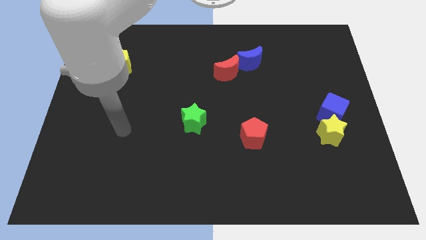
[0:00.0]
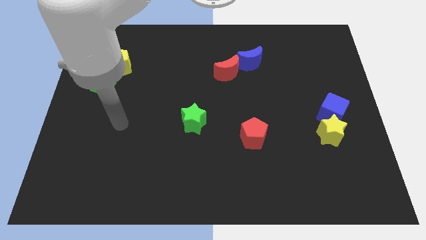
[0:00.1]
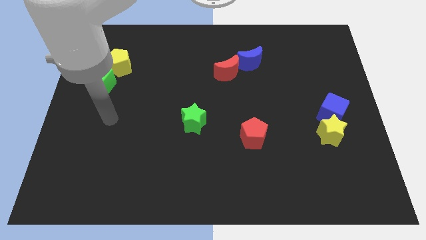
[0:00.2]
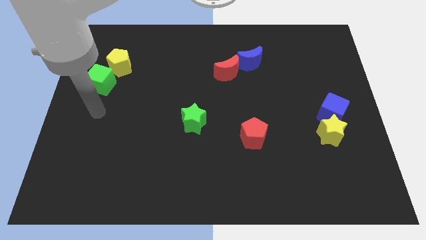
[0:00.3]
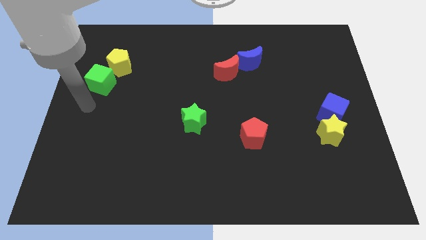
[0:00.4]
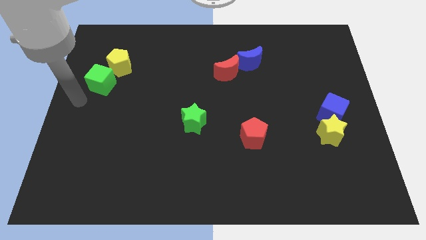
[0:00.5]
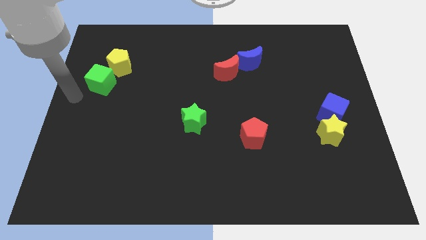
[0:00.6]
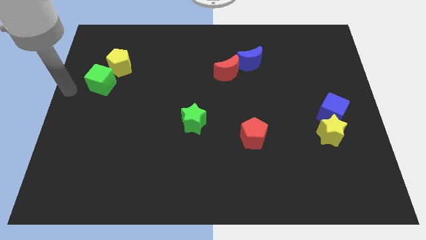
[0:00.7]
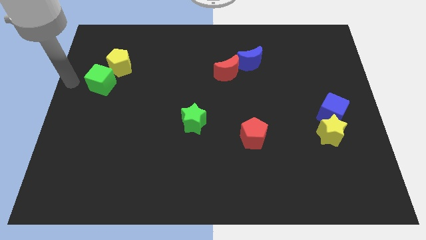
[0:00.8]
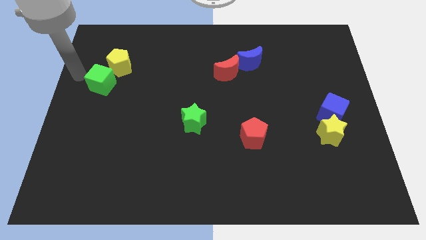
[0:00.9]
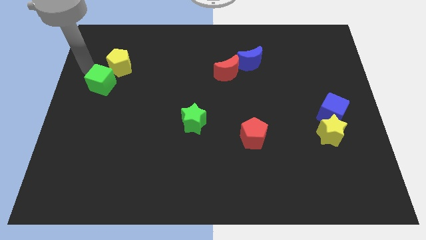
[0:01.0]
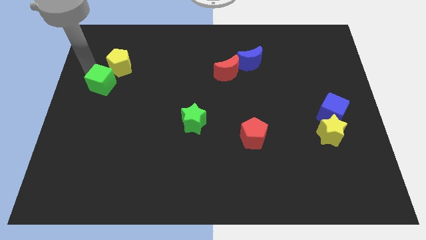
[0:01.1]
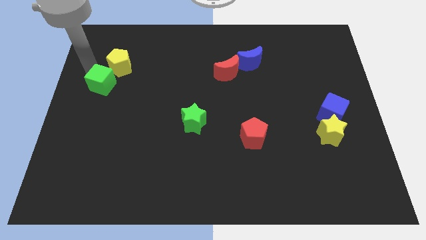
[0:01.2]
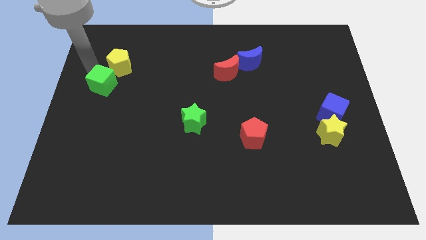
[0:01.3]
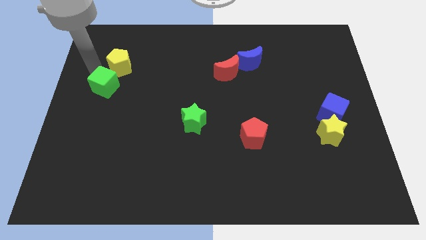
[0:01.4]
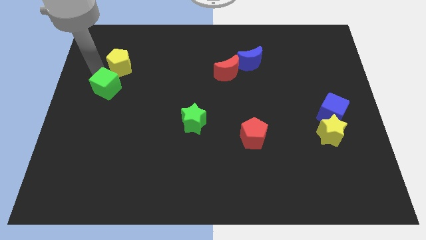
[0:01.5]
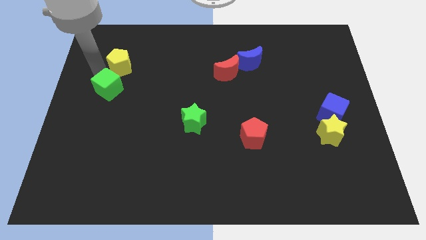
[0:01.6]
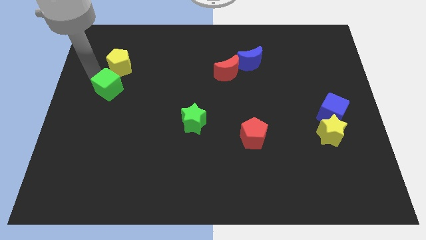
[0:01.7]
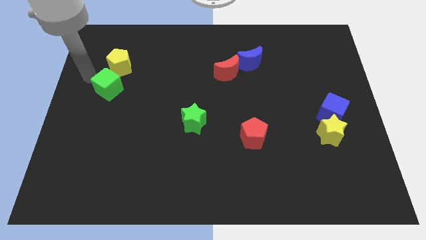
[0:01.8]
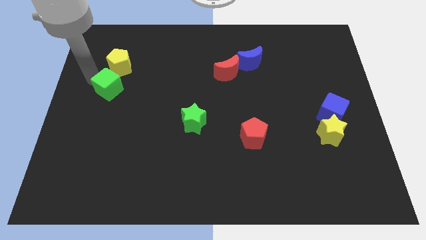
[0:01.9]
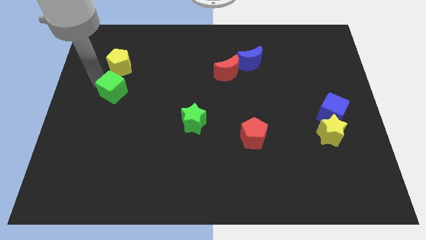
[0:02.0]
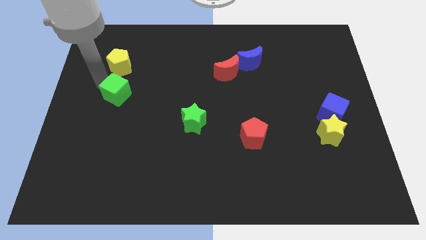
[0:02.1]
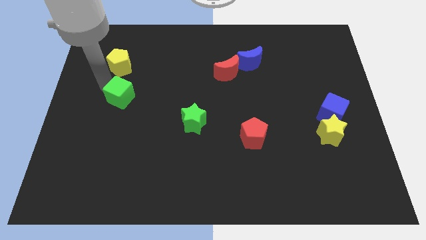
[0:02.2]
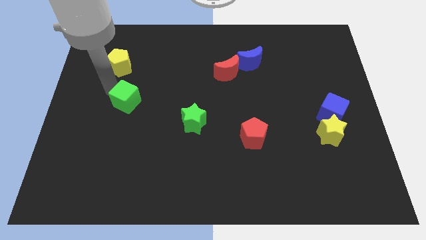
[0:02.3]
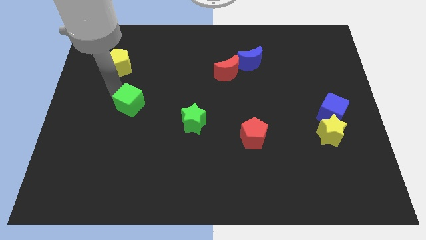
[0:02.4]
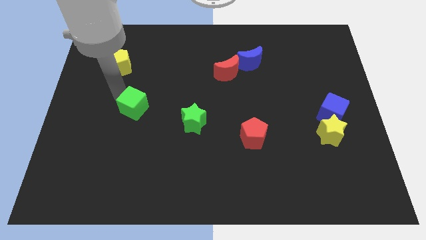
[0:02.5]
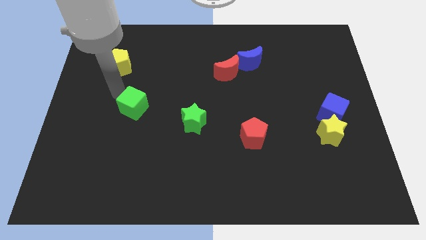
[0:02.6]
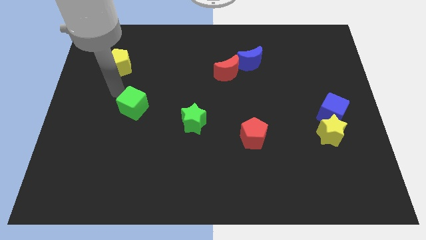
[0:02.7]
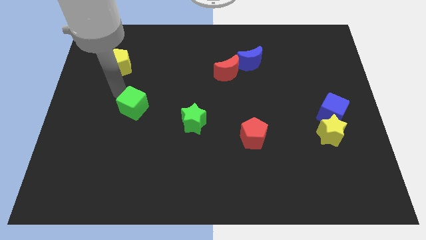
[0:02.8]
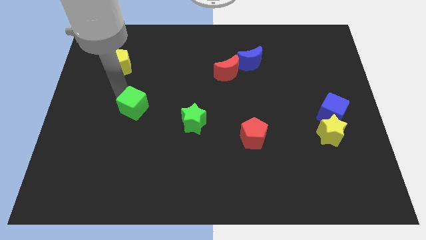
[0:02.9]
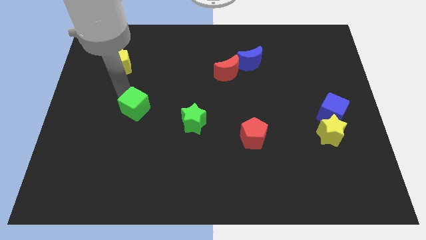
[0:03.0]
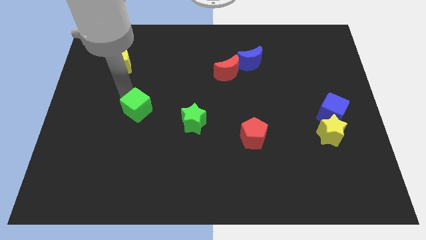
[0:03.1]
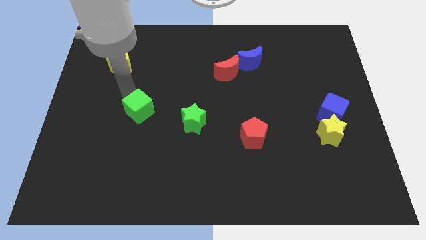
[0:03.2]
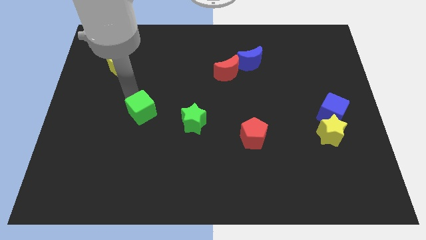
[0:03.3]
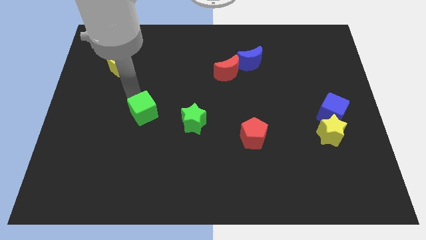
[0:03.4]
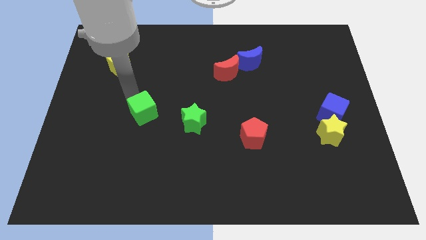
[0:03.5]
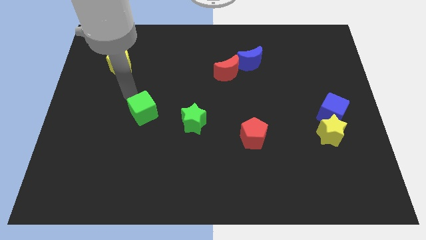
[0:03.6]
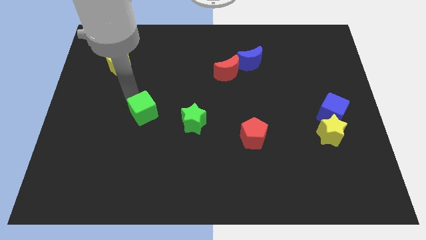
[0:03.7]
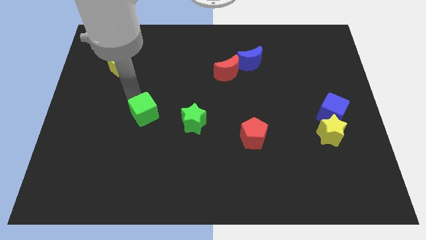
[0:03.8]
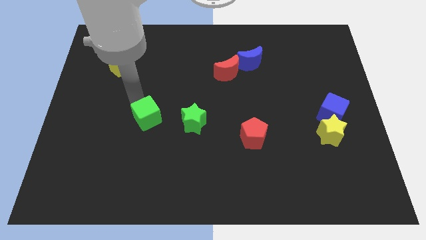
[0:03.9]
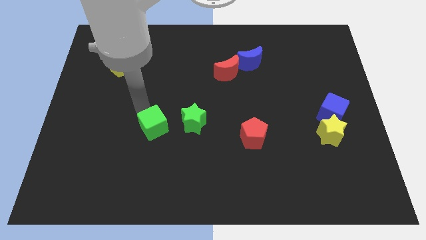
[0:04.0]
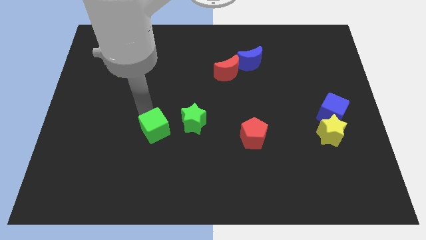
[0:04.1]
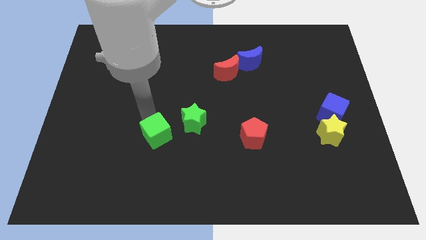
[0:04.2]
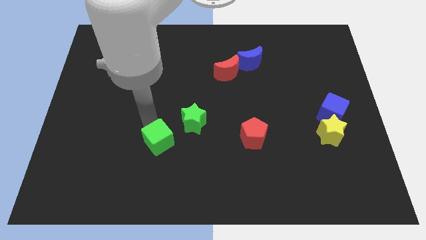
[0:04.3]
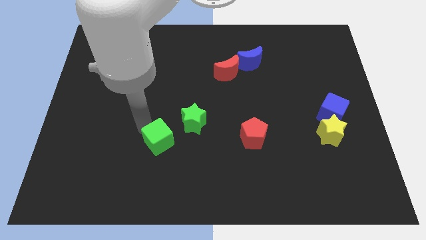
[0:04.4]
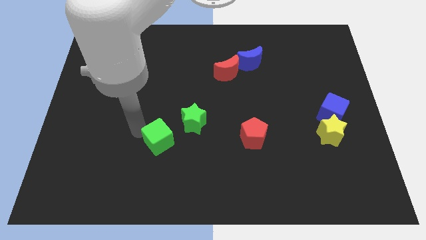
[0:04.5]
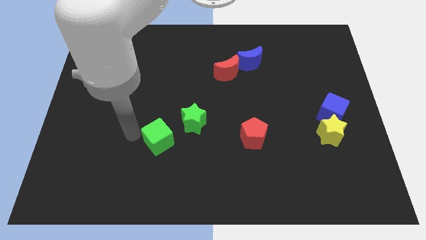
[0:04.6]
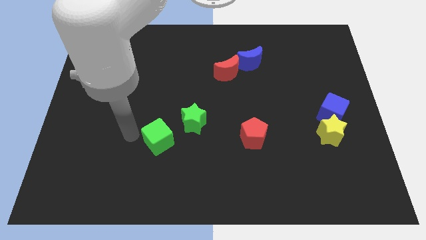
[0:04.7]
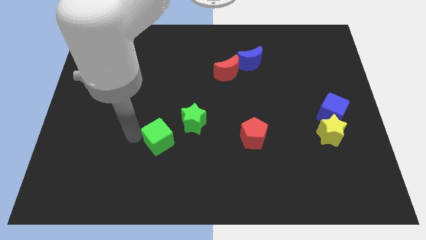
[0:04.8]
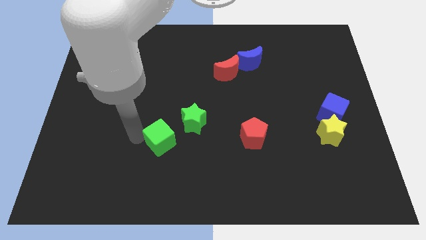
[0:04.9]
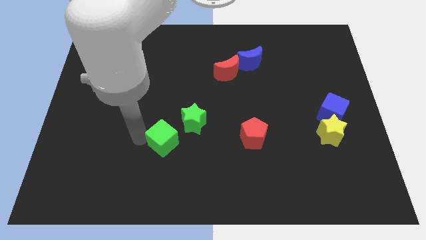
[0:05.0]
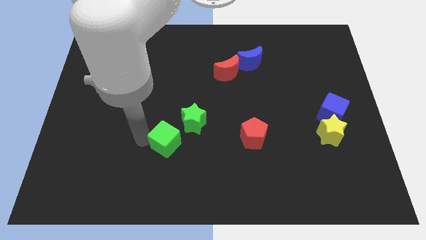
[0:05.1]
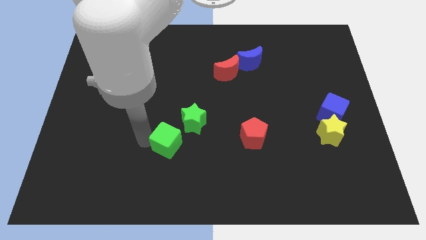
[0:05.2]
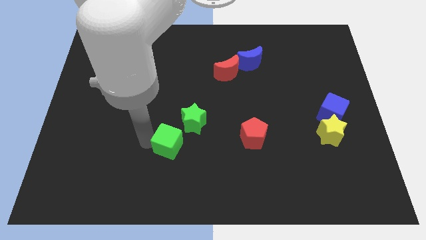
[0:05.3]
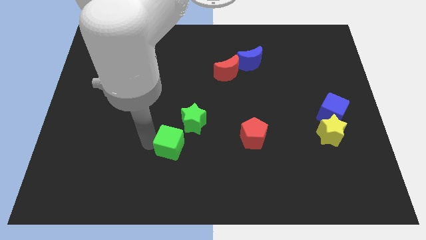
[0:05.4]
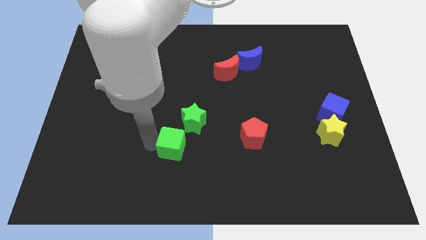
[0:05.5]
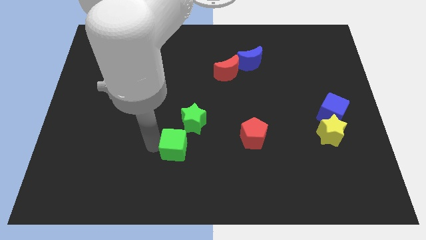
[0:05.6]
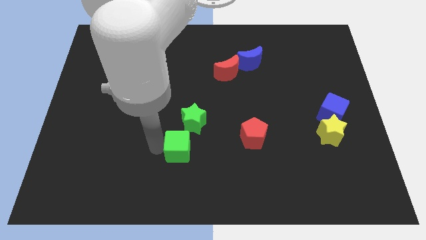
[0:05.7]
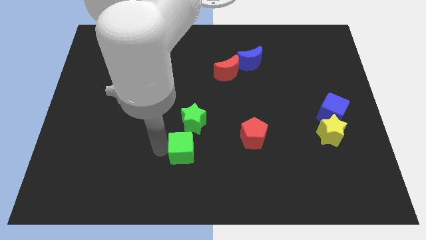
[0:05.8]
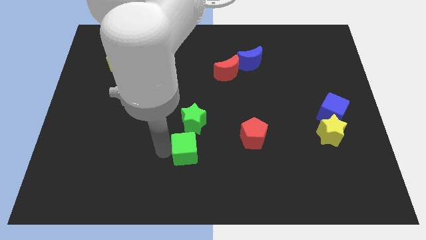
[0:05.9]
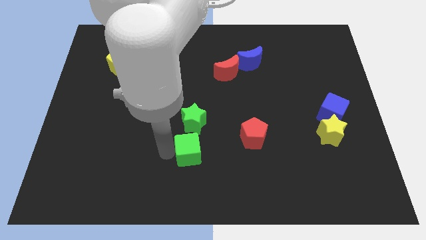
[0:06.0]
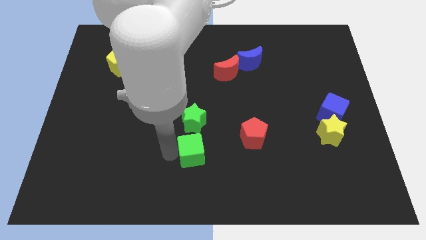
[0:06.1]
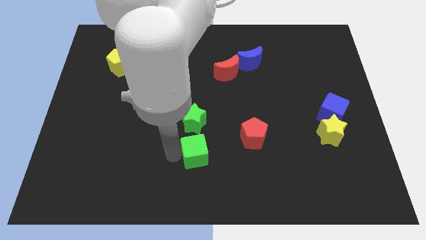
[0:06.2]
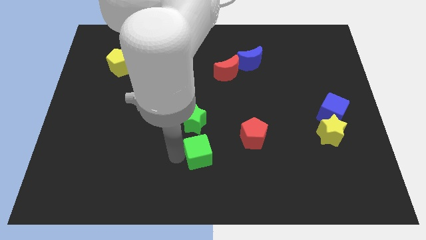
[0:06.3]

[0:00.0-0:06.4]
put the green cube to the bottom right side of the green star
